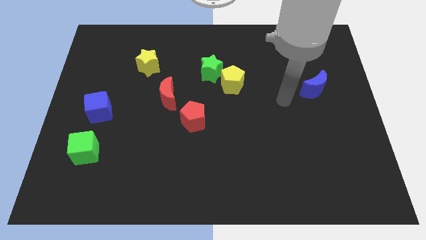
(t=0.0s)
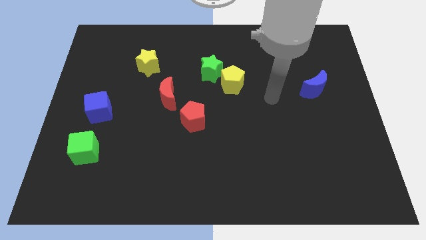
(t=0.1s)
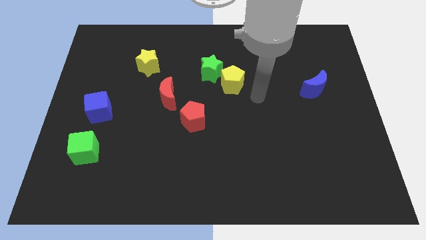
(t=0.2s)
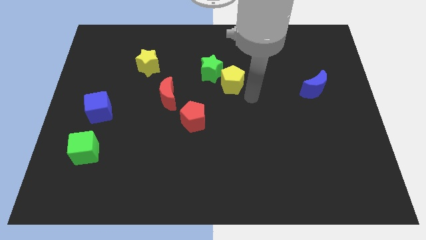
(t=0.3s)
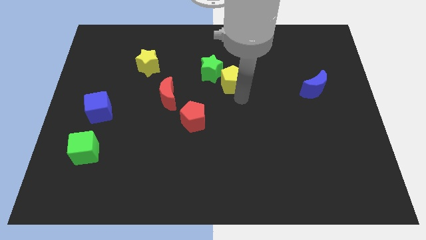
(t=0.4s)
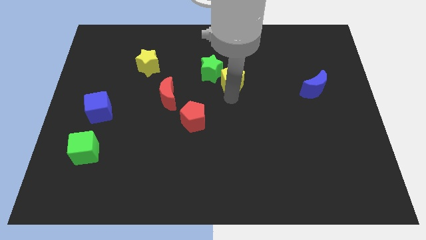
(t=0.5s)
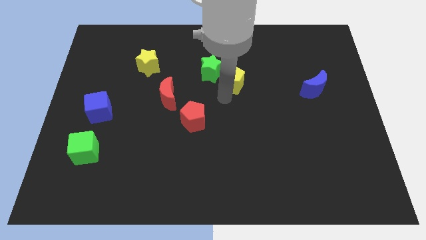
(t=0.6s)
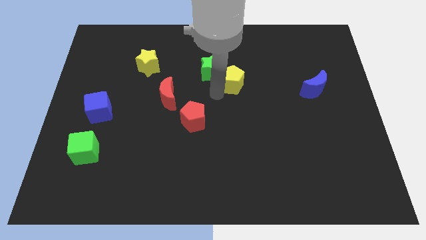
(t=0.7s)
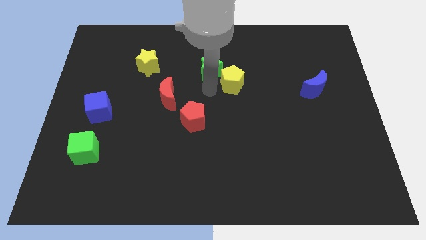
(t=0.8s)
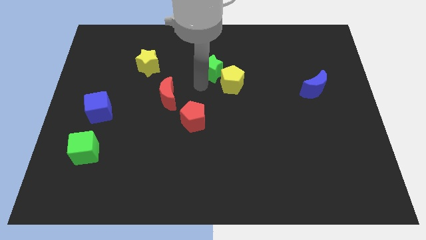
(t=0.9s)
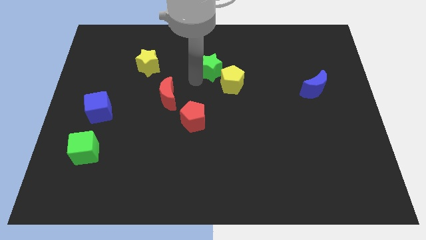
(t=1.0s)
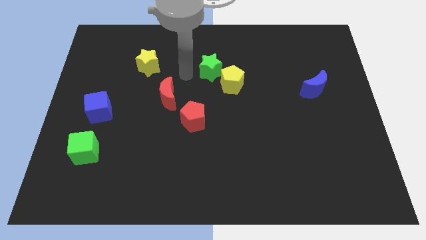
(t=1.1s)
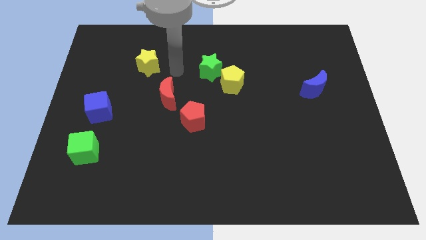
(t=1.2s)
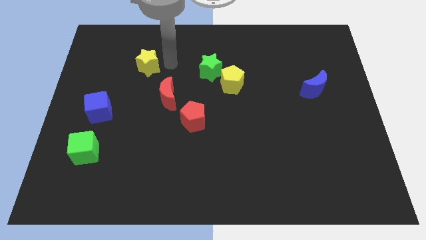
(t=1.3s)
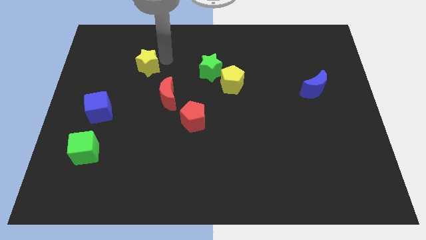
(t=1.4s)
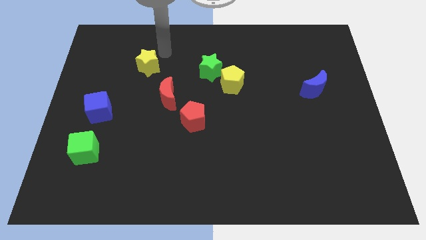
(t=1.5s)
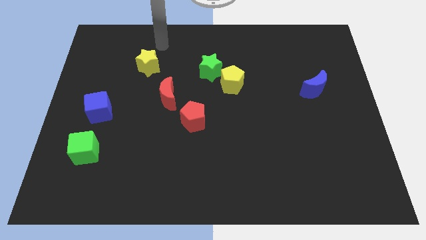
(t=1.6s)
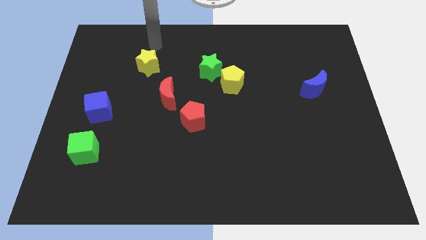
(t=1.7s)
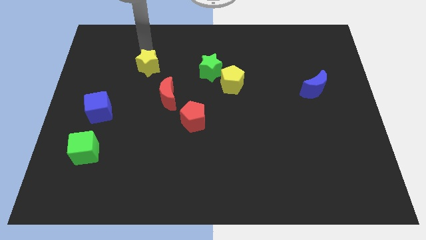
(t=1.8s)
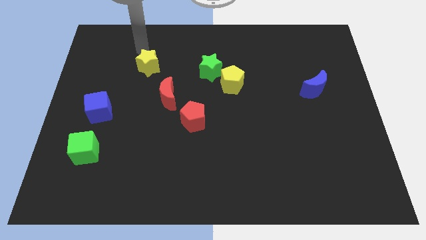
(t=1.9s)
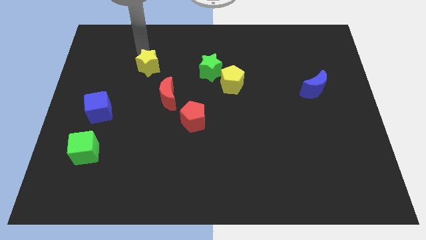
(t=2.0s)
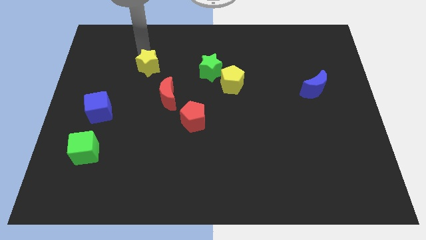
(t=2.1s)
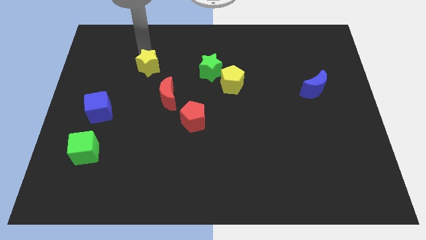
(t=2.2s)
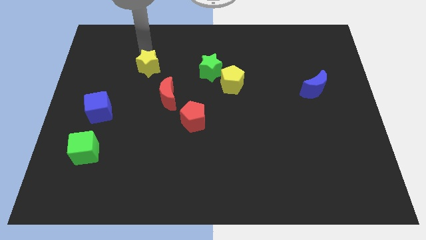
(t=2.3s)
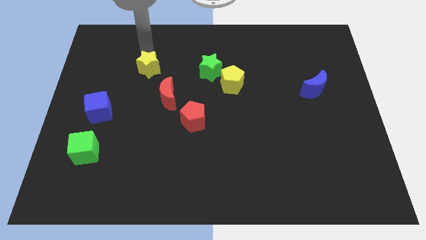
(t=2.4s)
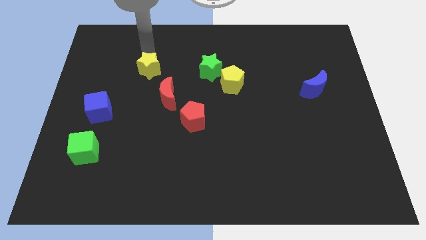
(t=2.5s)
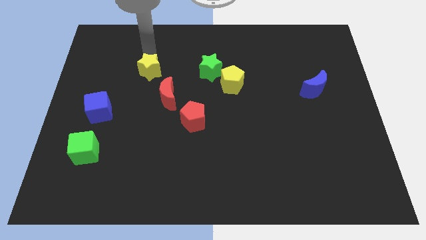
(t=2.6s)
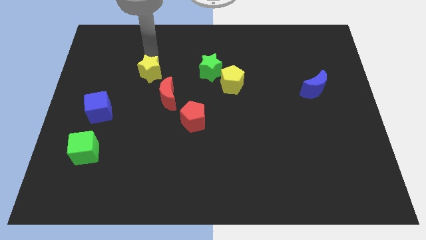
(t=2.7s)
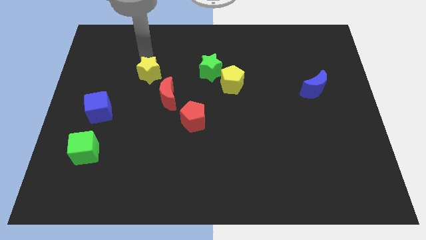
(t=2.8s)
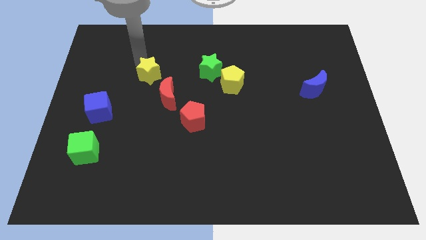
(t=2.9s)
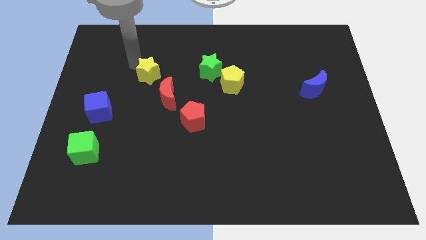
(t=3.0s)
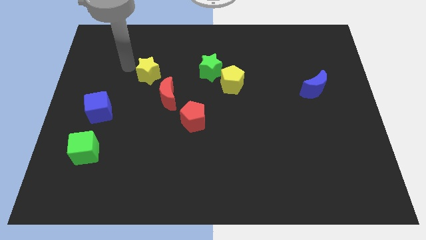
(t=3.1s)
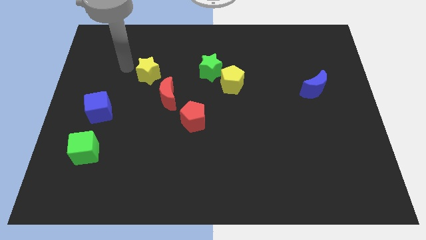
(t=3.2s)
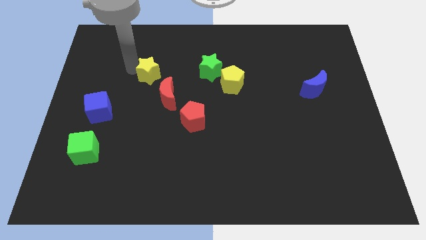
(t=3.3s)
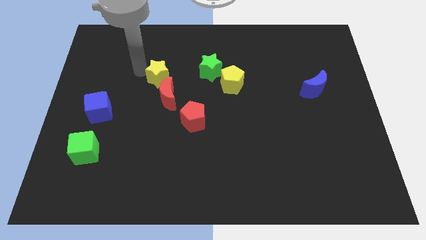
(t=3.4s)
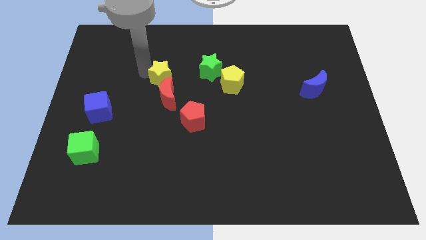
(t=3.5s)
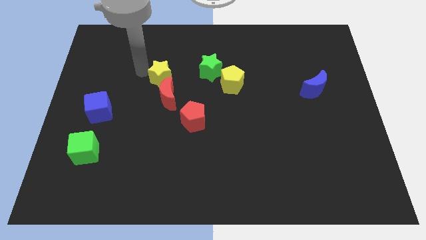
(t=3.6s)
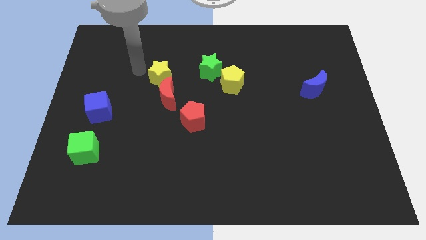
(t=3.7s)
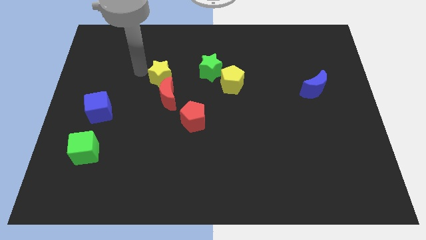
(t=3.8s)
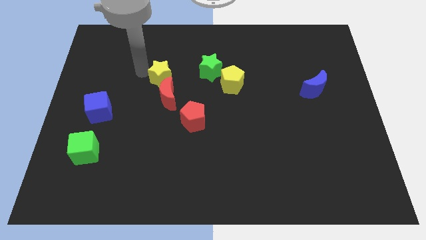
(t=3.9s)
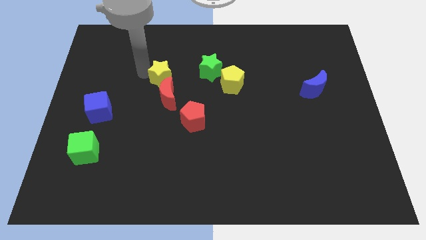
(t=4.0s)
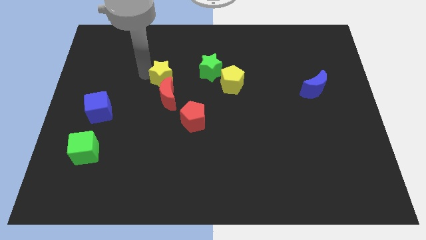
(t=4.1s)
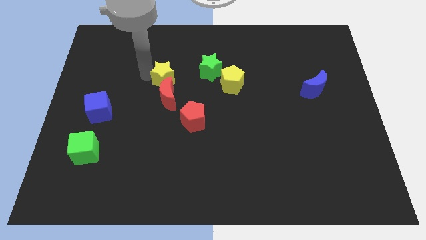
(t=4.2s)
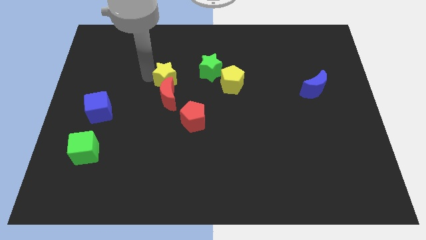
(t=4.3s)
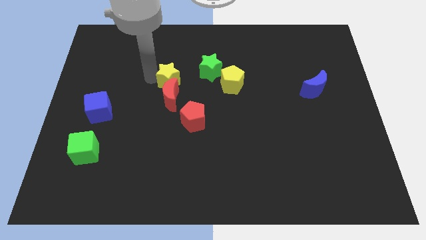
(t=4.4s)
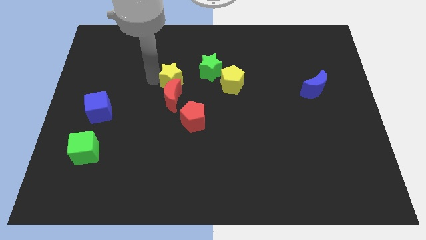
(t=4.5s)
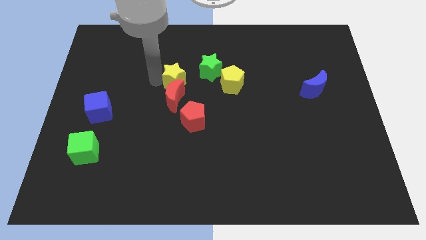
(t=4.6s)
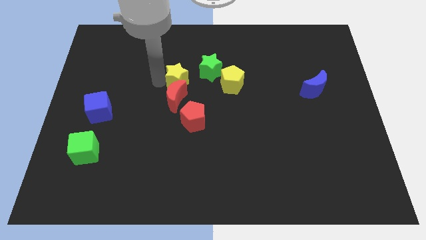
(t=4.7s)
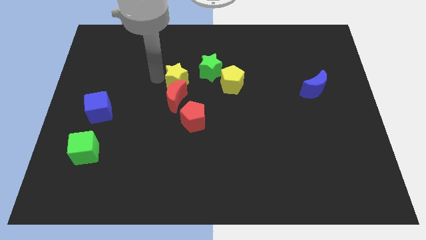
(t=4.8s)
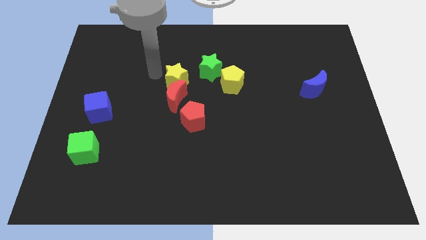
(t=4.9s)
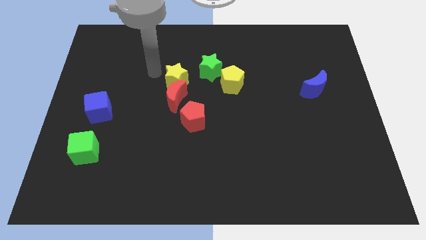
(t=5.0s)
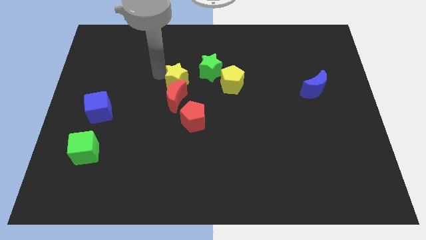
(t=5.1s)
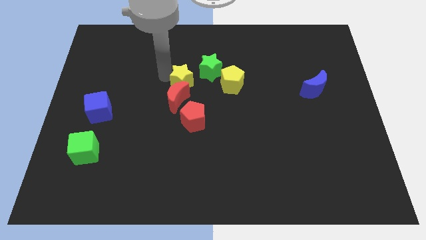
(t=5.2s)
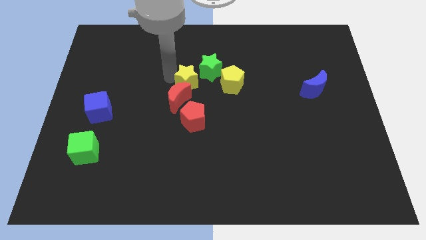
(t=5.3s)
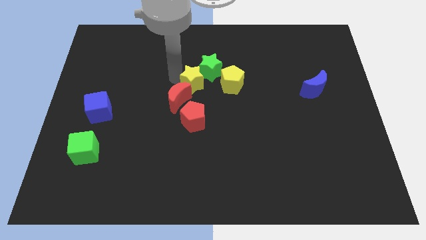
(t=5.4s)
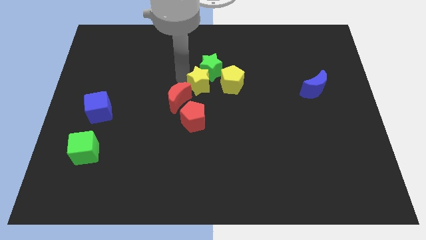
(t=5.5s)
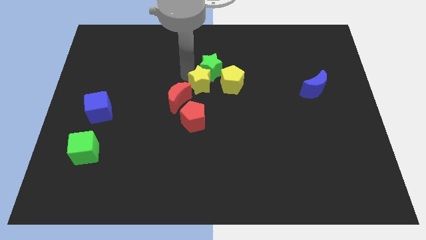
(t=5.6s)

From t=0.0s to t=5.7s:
slide the yellow star diagonally down and to the right of the green star

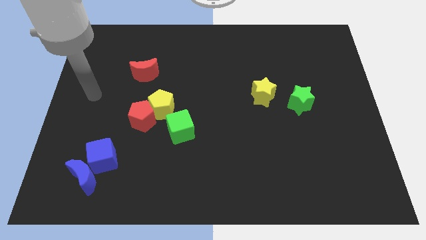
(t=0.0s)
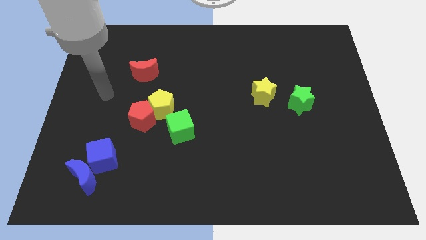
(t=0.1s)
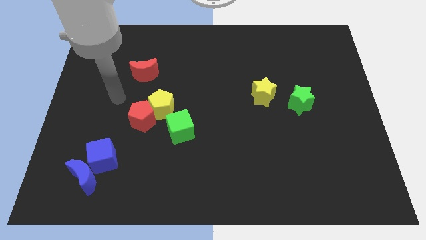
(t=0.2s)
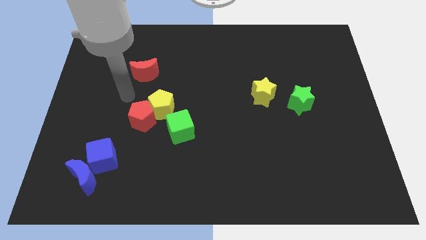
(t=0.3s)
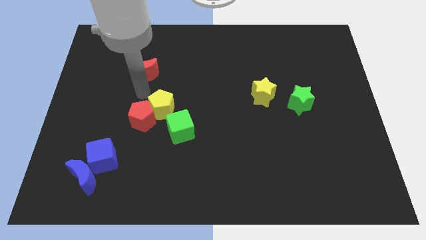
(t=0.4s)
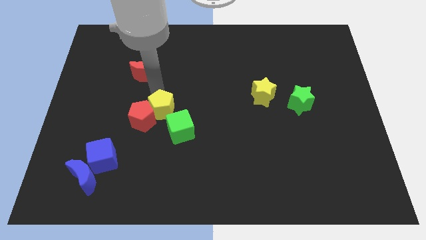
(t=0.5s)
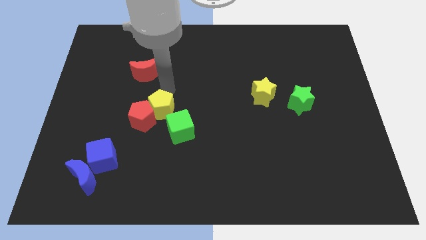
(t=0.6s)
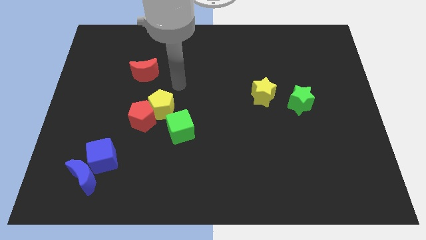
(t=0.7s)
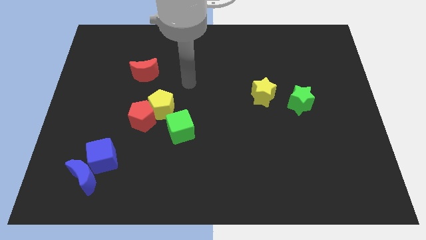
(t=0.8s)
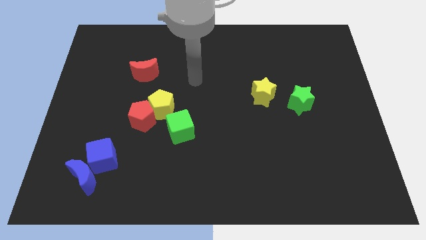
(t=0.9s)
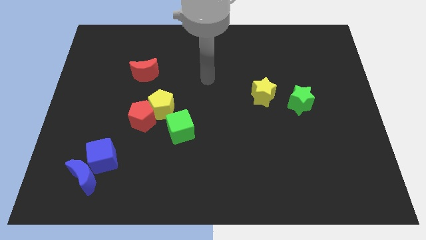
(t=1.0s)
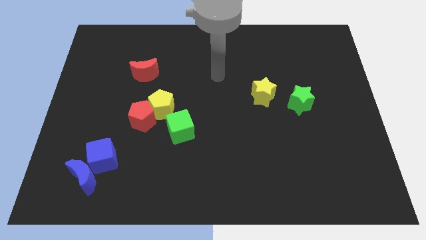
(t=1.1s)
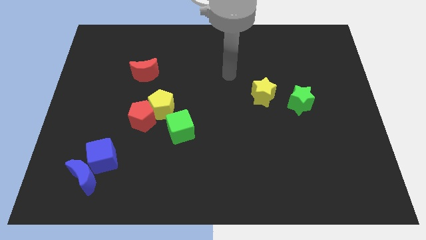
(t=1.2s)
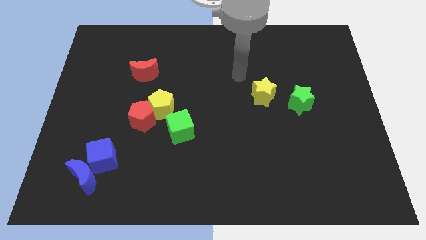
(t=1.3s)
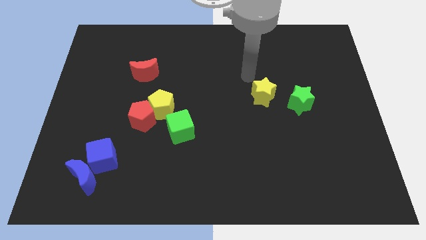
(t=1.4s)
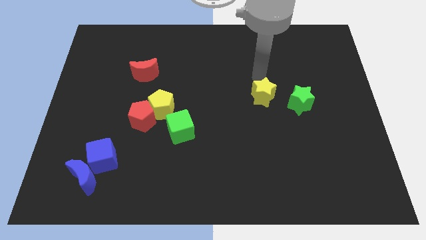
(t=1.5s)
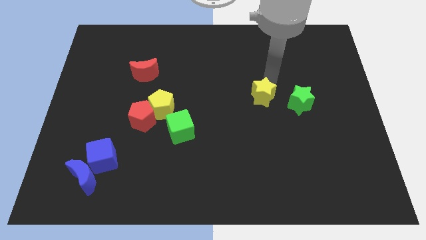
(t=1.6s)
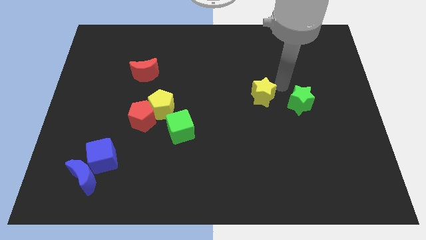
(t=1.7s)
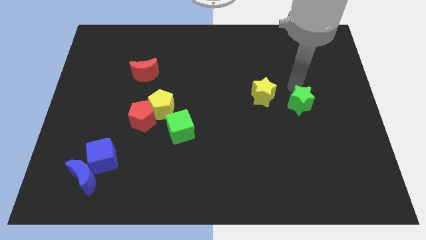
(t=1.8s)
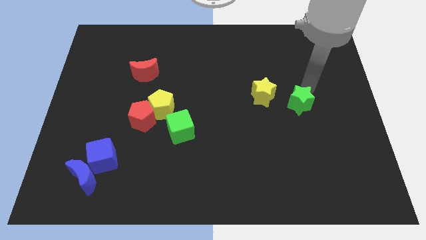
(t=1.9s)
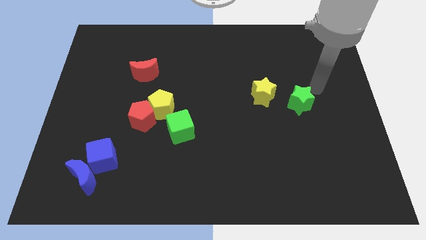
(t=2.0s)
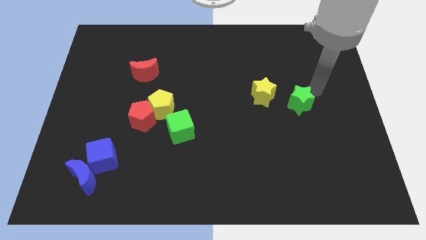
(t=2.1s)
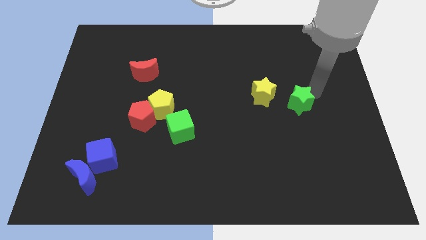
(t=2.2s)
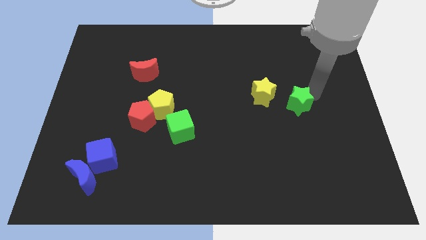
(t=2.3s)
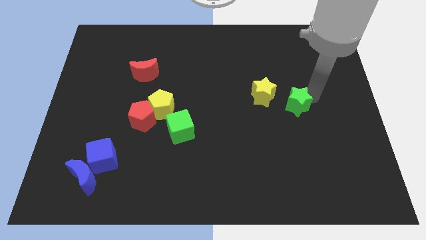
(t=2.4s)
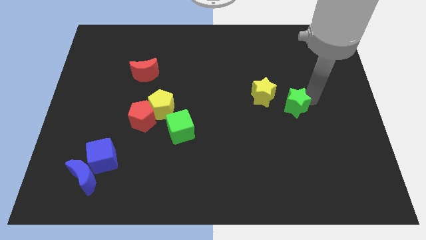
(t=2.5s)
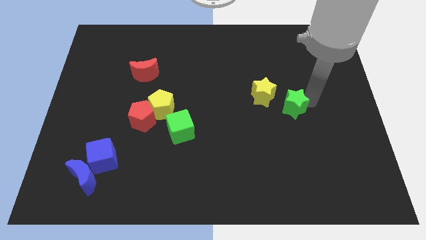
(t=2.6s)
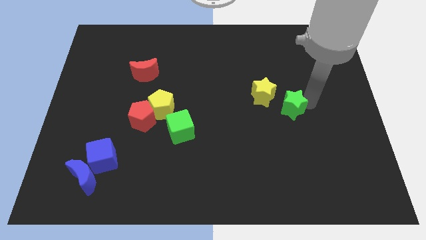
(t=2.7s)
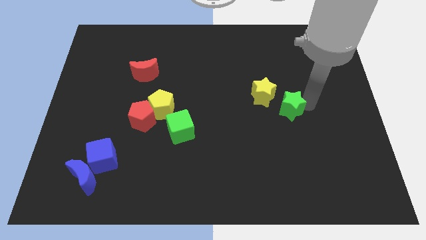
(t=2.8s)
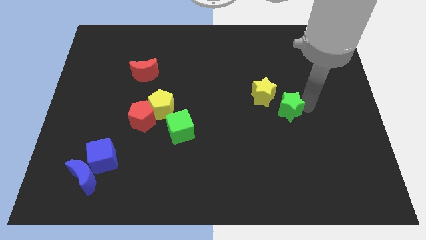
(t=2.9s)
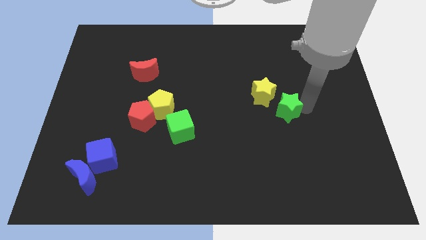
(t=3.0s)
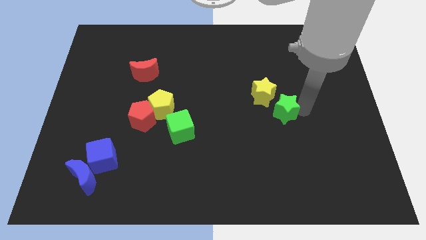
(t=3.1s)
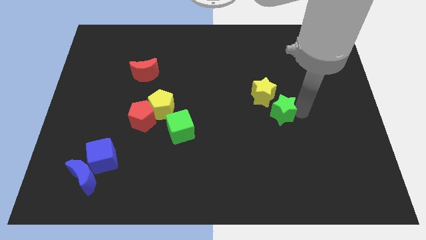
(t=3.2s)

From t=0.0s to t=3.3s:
push the green star to the bottom of the yellow star
